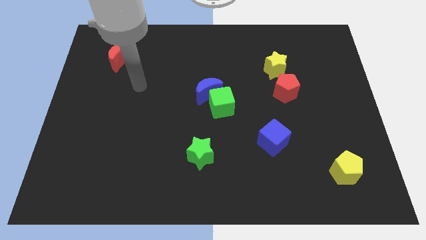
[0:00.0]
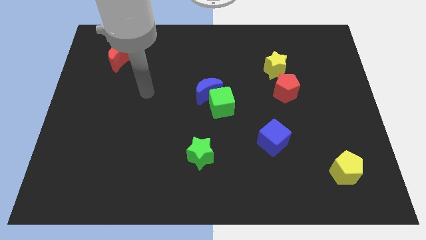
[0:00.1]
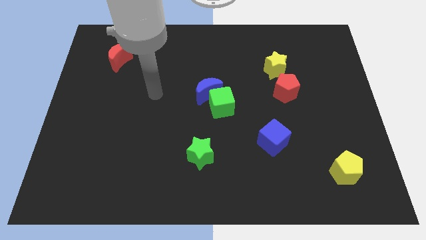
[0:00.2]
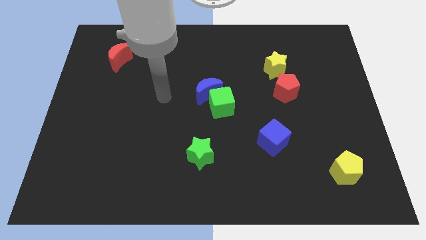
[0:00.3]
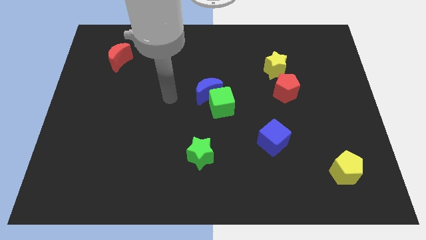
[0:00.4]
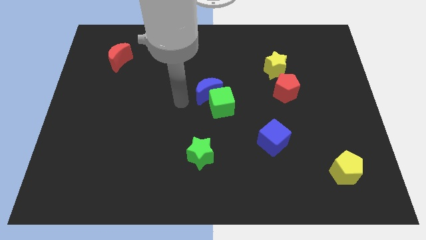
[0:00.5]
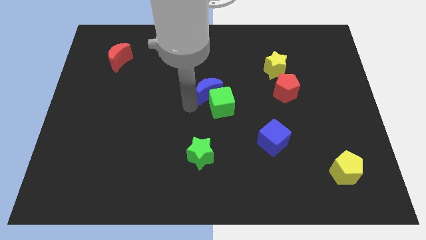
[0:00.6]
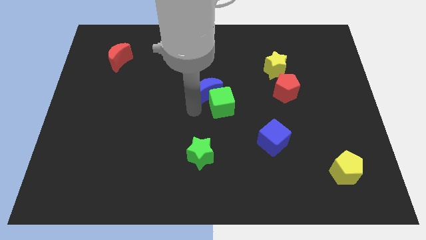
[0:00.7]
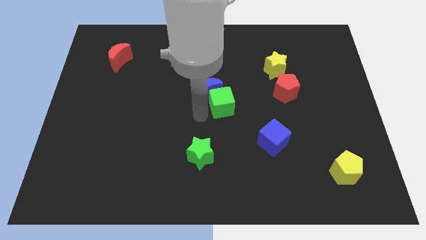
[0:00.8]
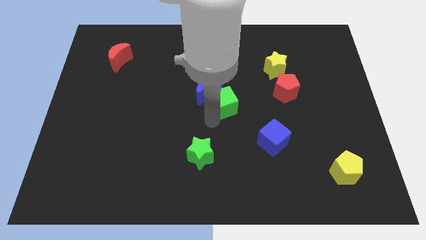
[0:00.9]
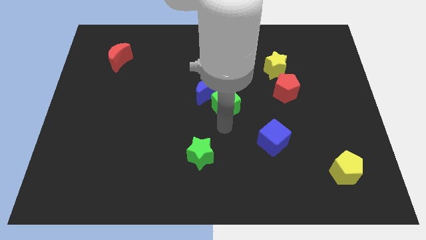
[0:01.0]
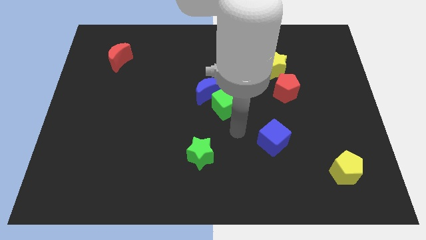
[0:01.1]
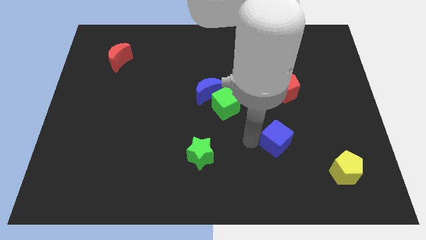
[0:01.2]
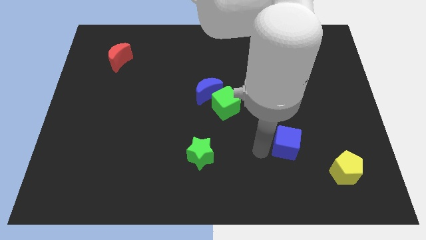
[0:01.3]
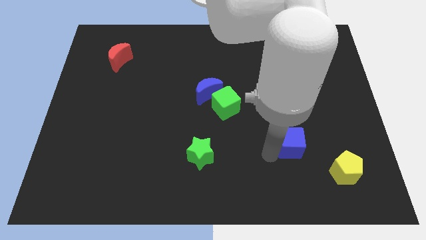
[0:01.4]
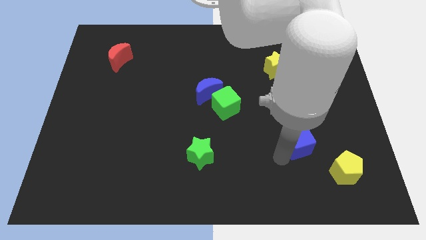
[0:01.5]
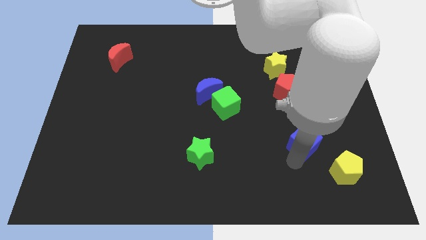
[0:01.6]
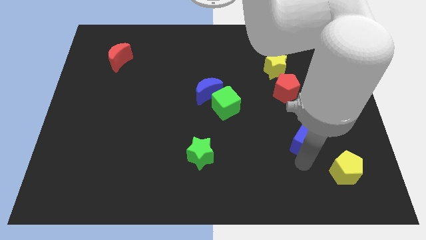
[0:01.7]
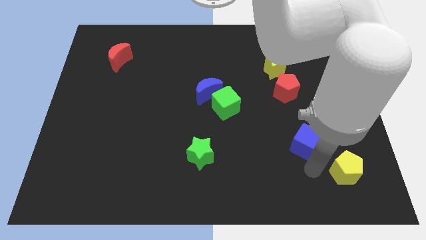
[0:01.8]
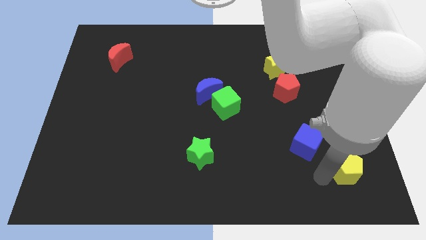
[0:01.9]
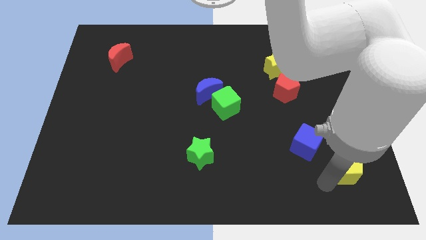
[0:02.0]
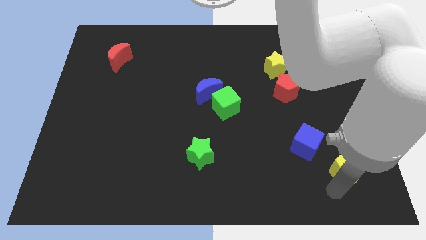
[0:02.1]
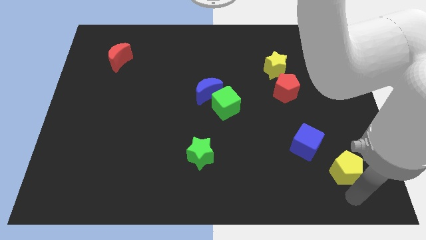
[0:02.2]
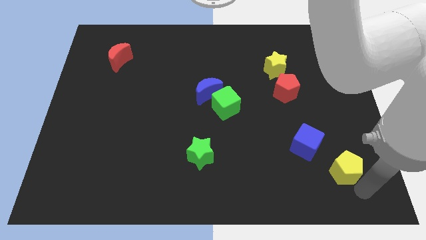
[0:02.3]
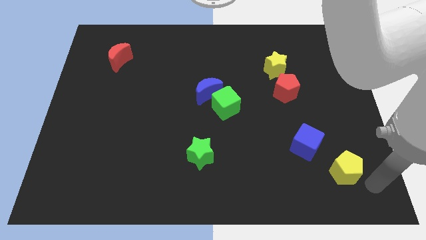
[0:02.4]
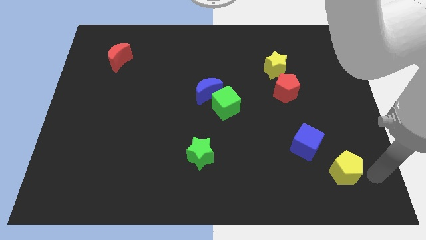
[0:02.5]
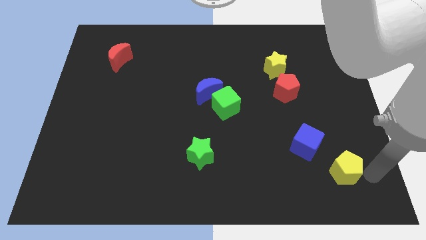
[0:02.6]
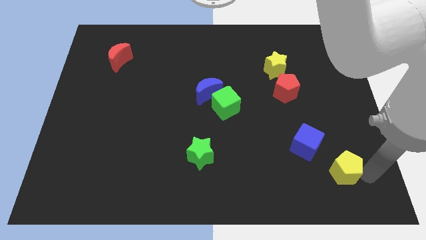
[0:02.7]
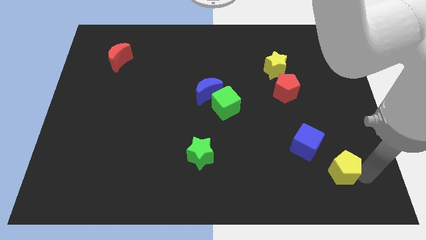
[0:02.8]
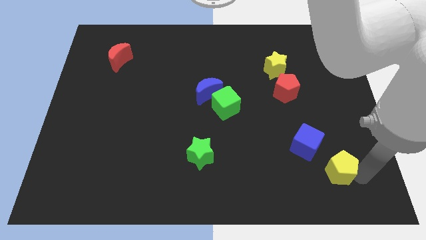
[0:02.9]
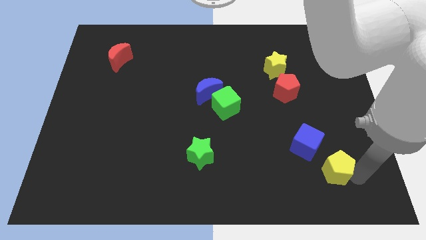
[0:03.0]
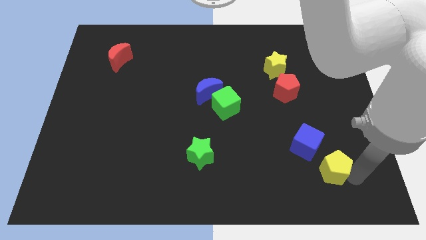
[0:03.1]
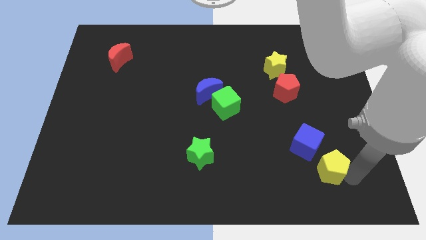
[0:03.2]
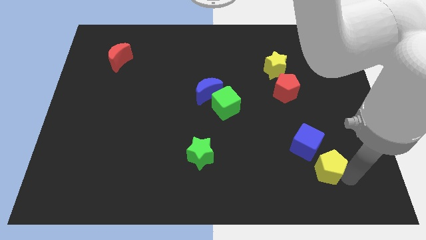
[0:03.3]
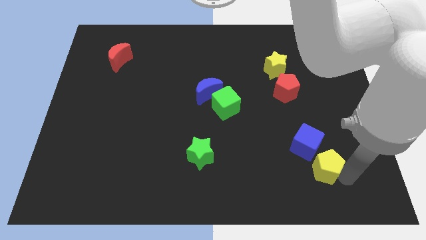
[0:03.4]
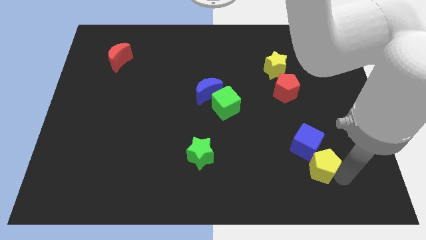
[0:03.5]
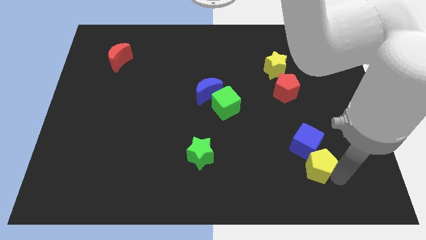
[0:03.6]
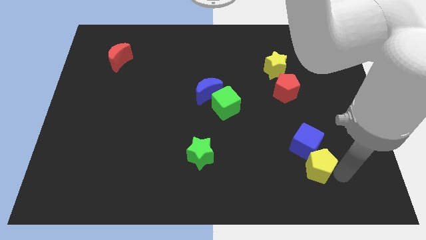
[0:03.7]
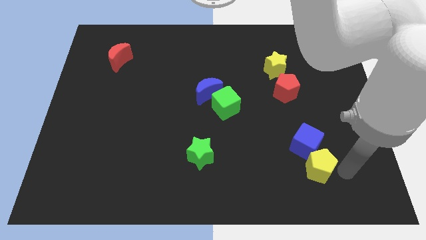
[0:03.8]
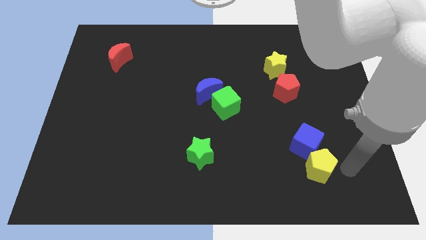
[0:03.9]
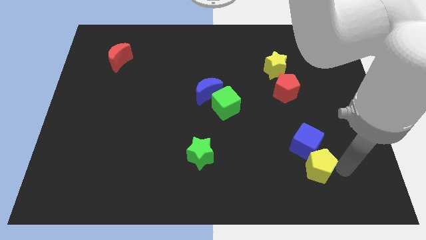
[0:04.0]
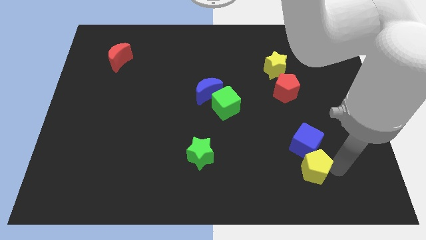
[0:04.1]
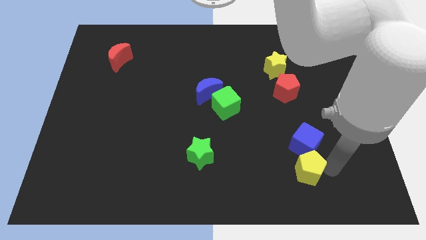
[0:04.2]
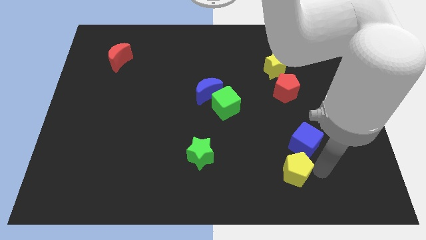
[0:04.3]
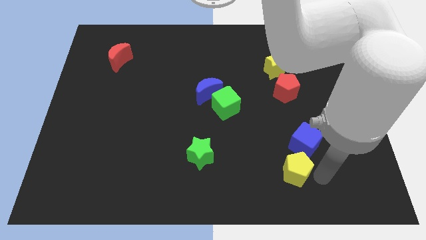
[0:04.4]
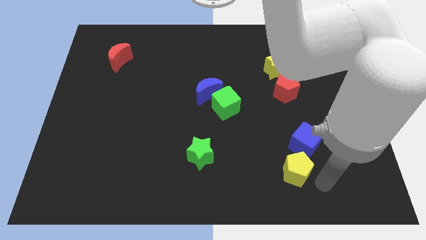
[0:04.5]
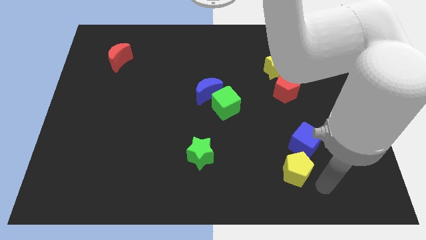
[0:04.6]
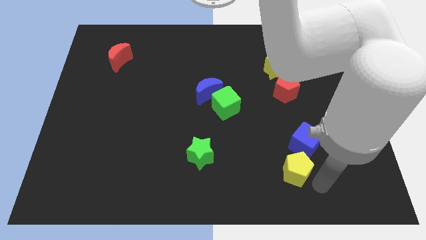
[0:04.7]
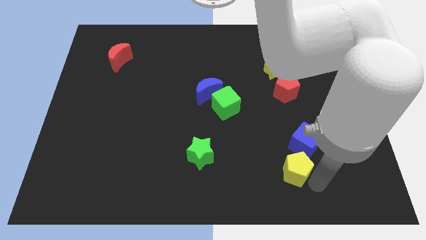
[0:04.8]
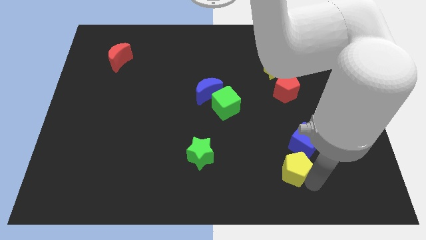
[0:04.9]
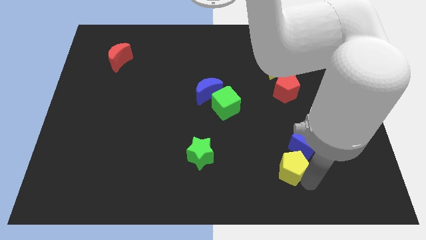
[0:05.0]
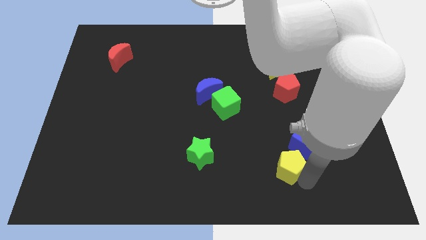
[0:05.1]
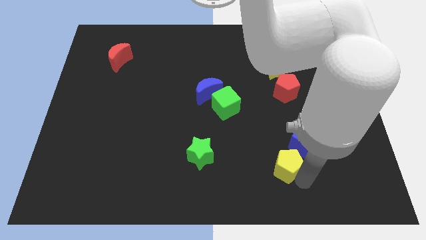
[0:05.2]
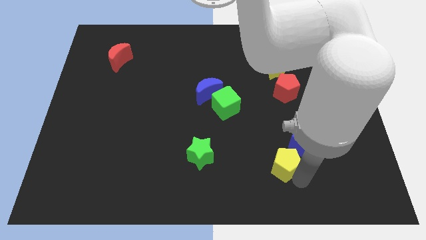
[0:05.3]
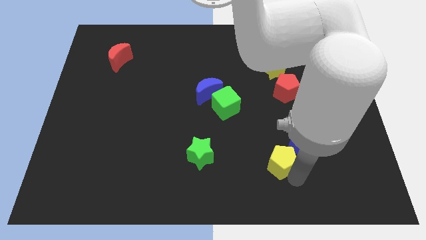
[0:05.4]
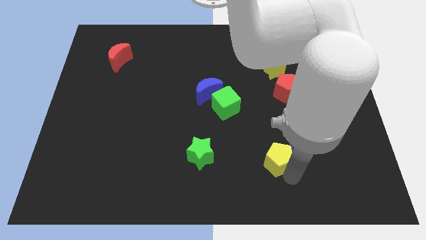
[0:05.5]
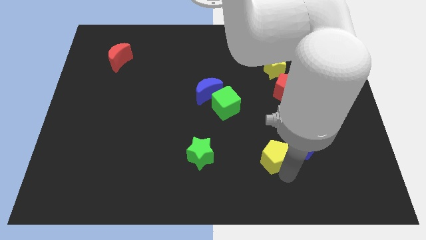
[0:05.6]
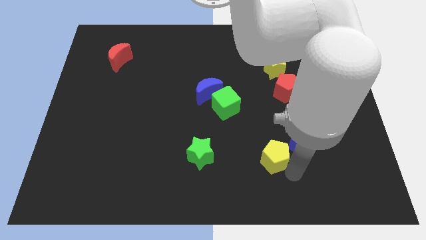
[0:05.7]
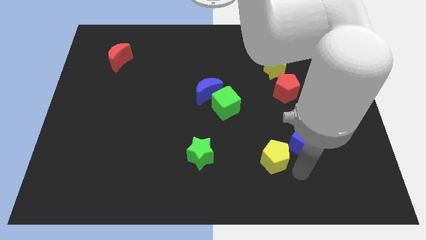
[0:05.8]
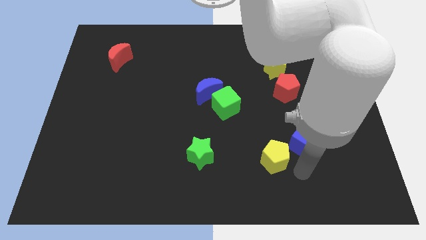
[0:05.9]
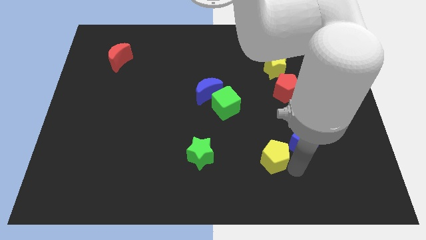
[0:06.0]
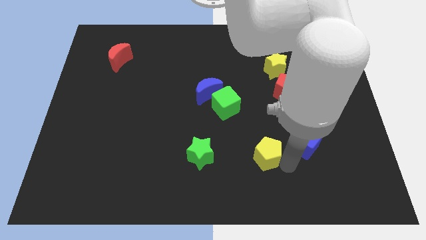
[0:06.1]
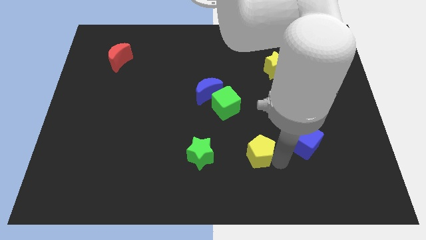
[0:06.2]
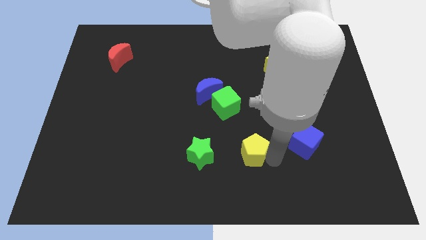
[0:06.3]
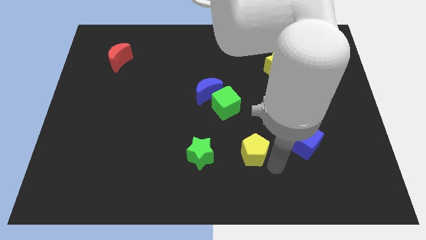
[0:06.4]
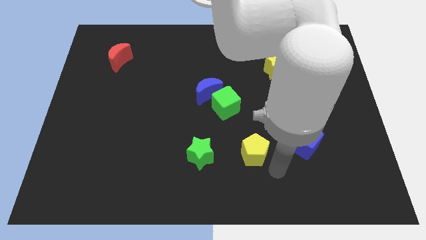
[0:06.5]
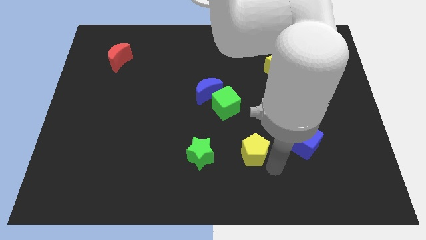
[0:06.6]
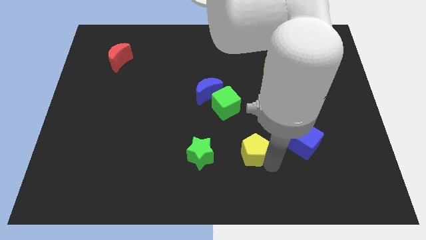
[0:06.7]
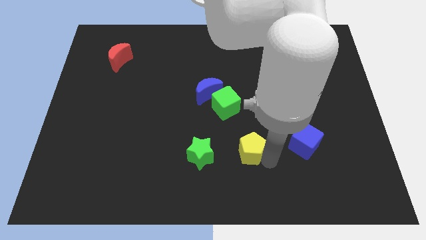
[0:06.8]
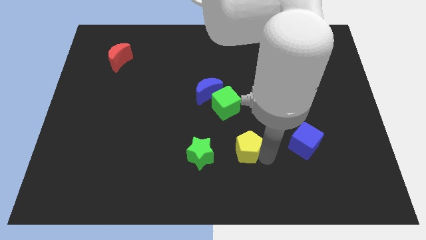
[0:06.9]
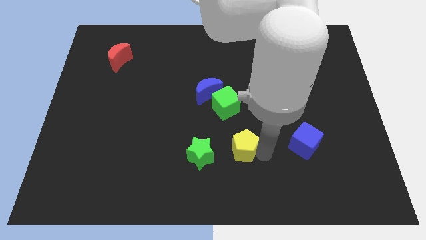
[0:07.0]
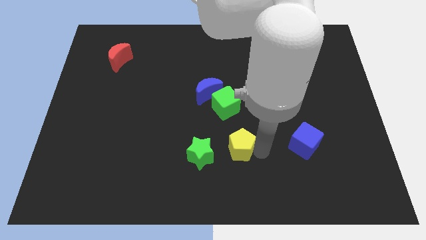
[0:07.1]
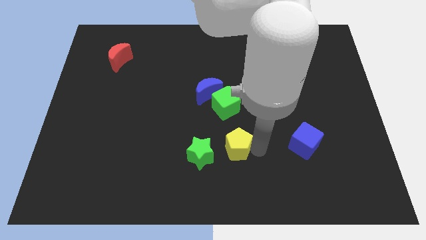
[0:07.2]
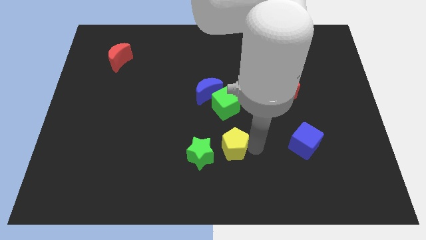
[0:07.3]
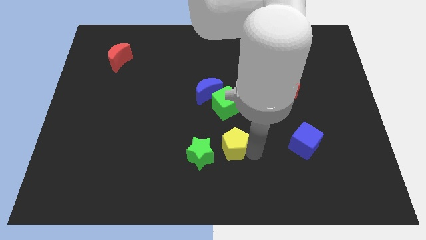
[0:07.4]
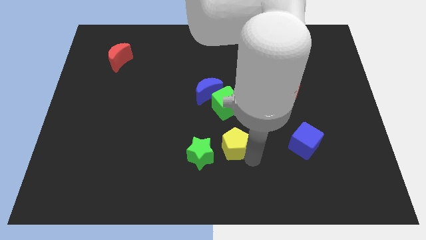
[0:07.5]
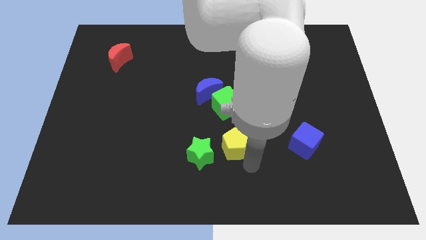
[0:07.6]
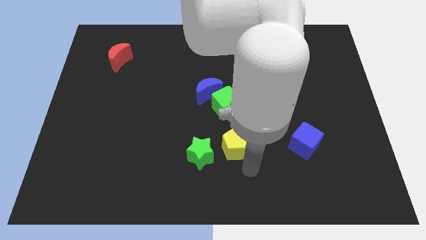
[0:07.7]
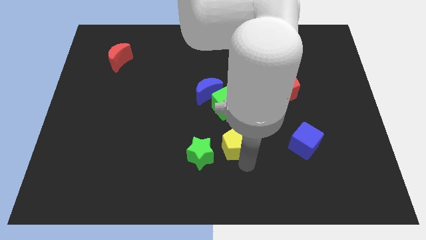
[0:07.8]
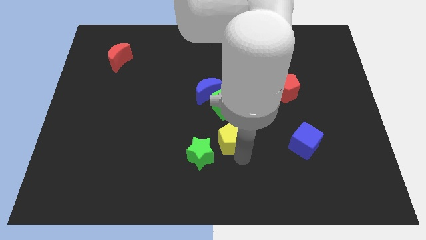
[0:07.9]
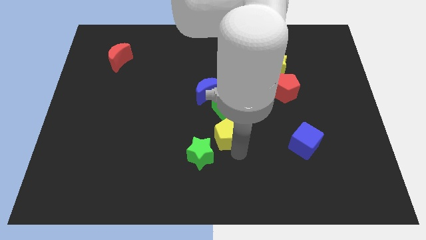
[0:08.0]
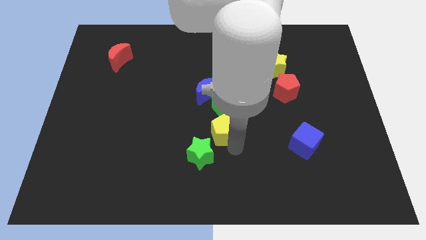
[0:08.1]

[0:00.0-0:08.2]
move the yellow pentagon to the top of the green star
